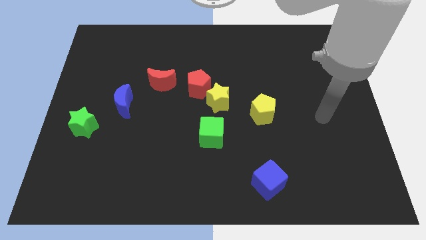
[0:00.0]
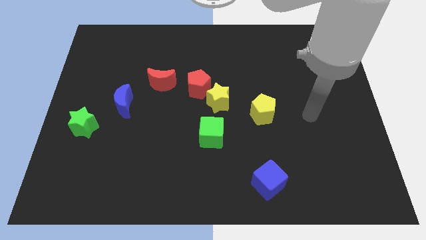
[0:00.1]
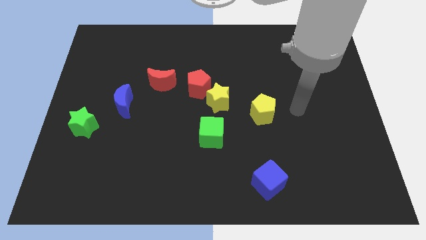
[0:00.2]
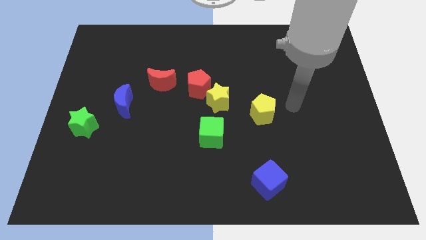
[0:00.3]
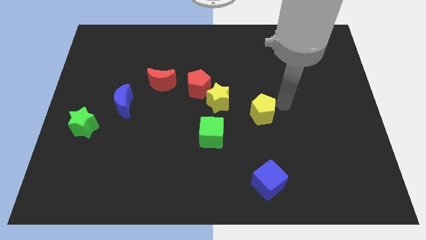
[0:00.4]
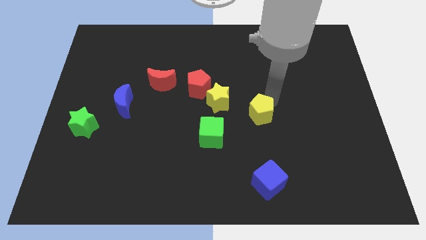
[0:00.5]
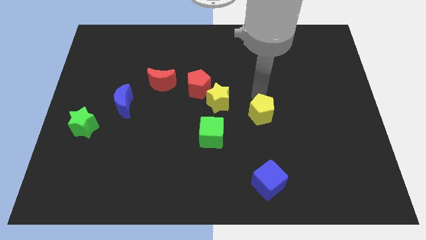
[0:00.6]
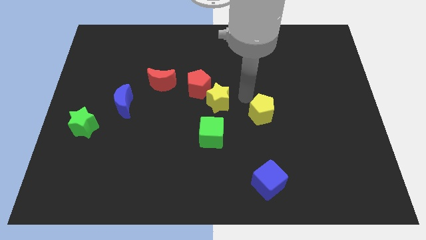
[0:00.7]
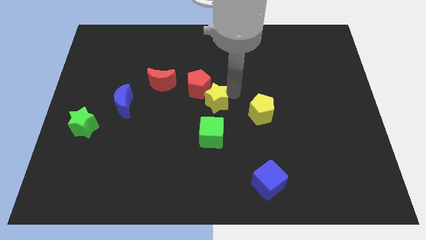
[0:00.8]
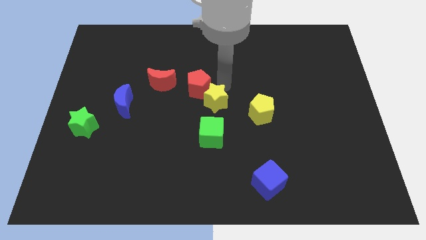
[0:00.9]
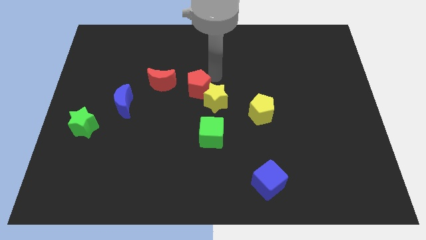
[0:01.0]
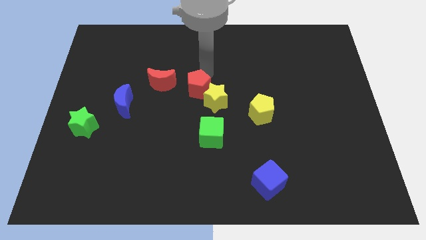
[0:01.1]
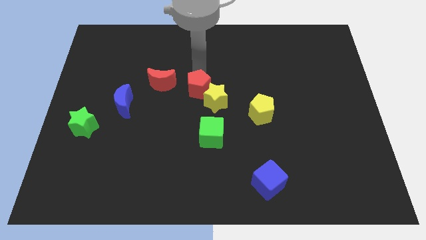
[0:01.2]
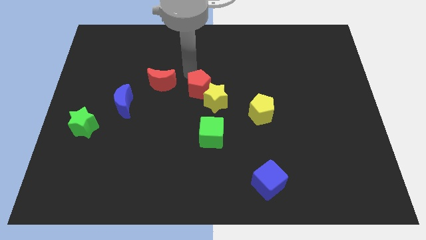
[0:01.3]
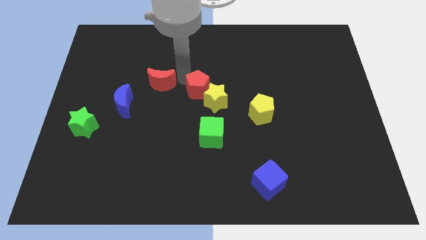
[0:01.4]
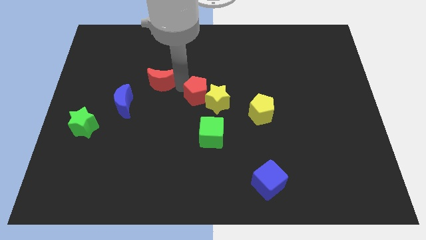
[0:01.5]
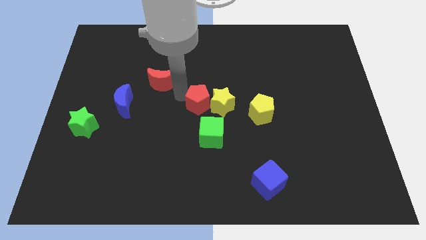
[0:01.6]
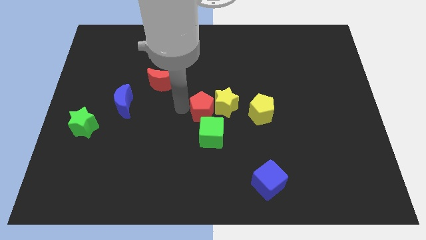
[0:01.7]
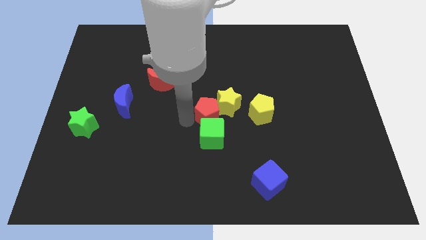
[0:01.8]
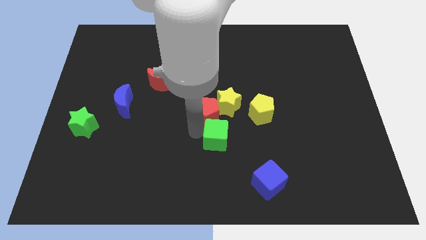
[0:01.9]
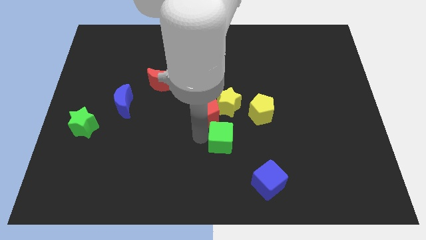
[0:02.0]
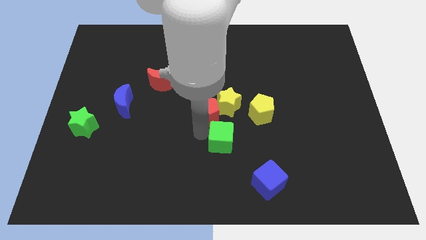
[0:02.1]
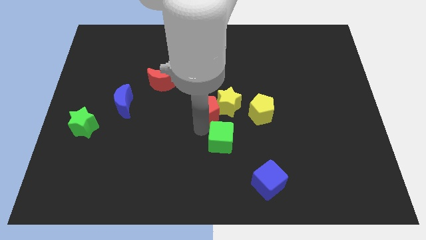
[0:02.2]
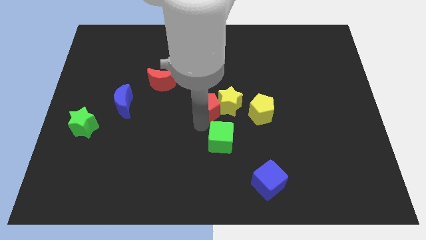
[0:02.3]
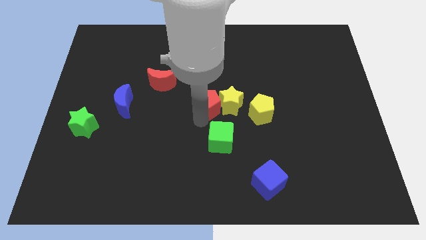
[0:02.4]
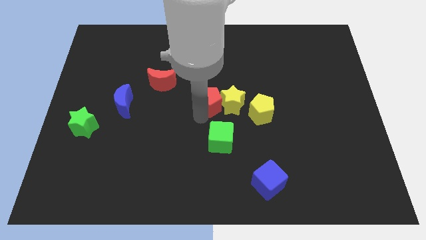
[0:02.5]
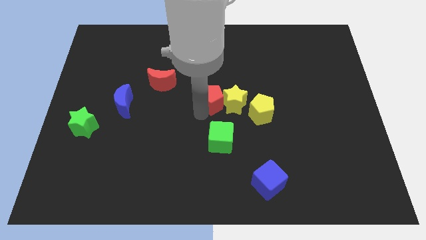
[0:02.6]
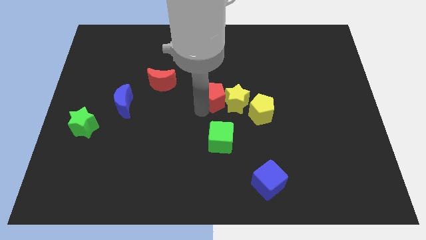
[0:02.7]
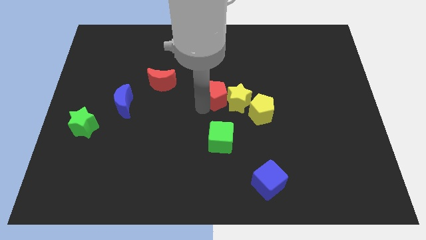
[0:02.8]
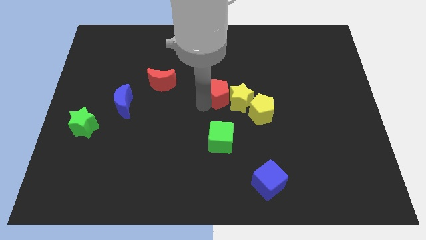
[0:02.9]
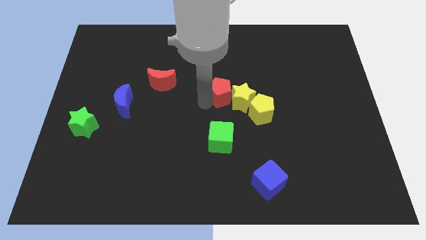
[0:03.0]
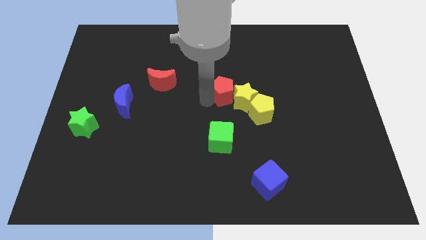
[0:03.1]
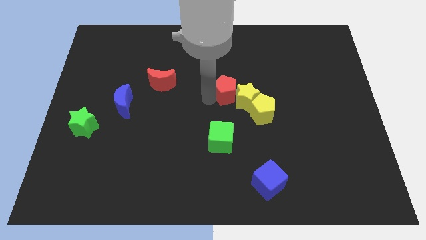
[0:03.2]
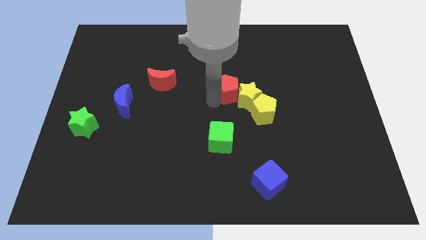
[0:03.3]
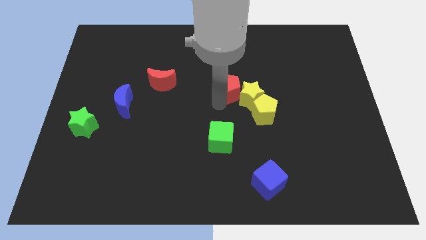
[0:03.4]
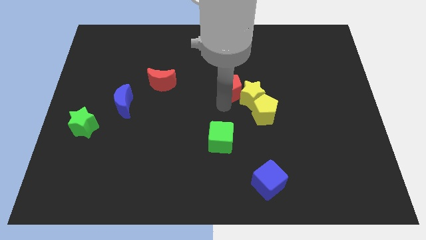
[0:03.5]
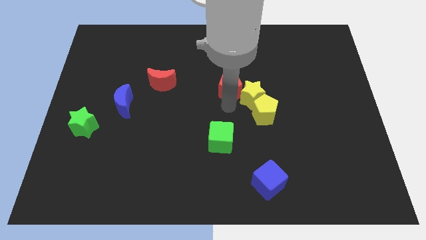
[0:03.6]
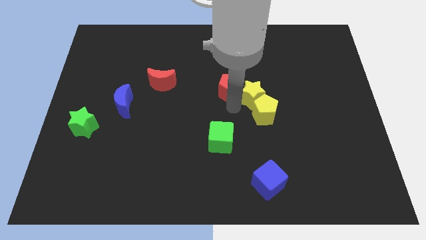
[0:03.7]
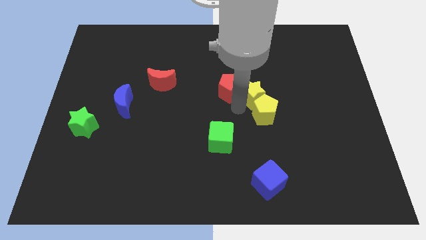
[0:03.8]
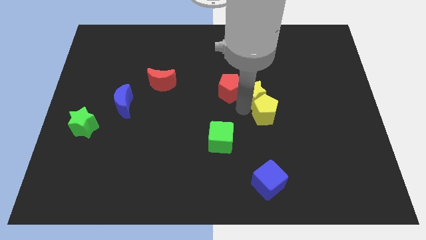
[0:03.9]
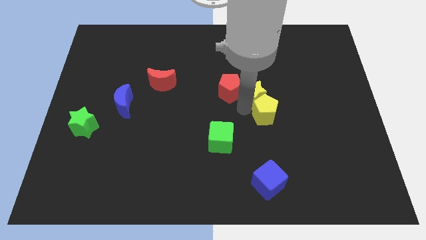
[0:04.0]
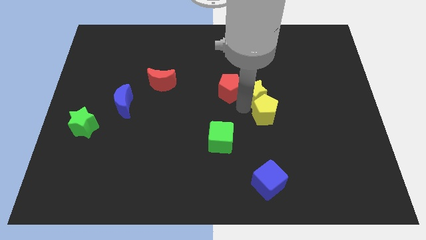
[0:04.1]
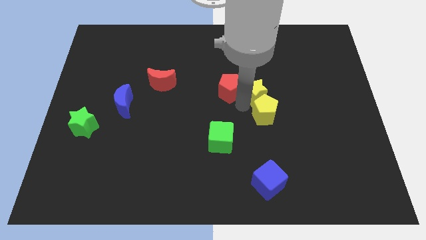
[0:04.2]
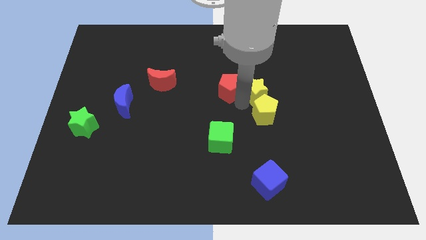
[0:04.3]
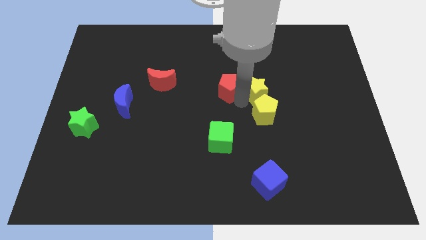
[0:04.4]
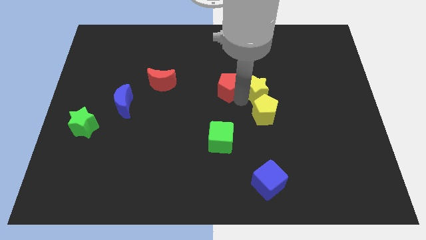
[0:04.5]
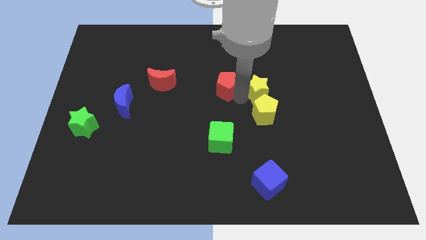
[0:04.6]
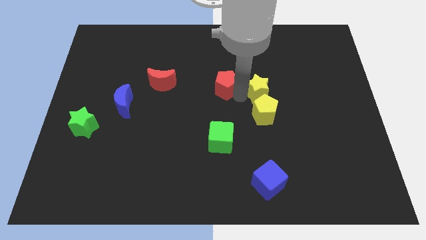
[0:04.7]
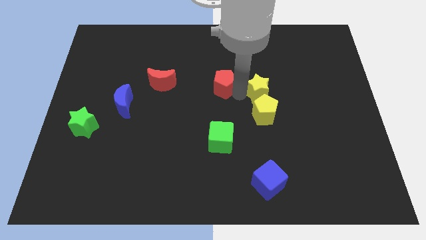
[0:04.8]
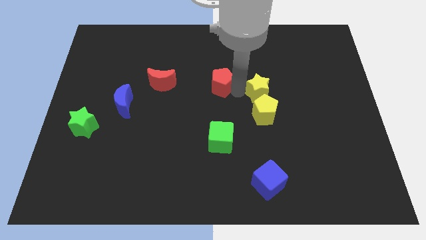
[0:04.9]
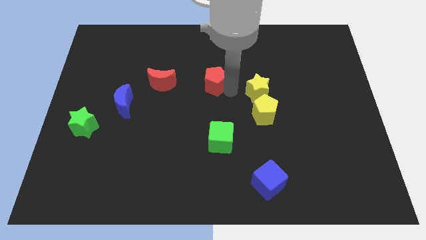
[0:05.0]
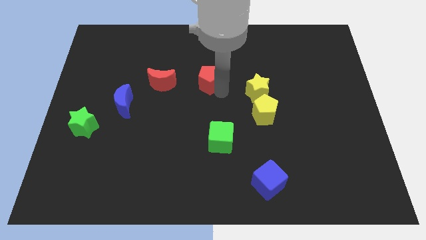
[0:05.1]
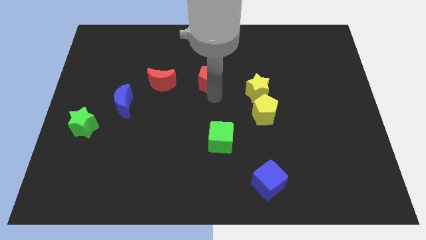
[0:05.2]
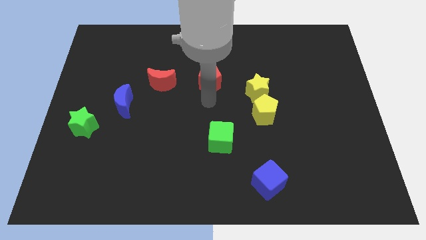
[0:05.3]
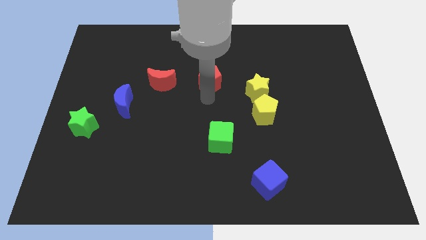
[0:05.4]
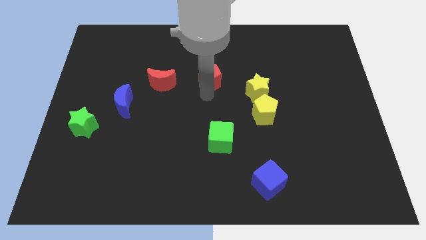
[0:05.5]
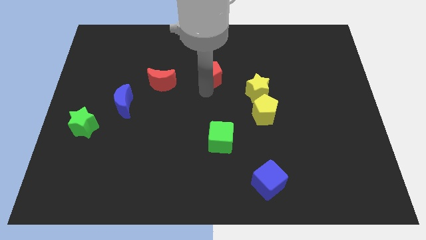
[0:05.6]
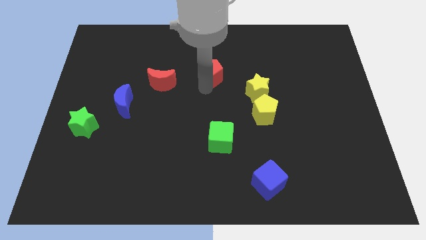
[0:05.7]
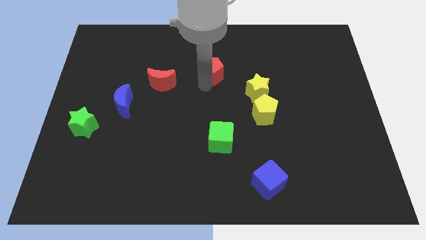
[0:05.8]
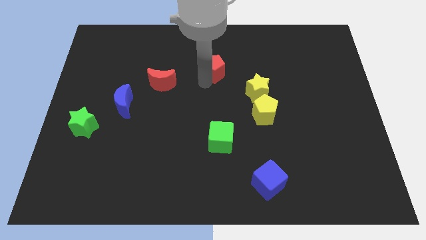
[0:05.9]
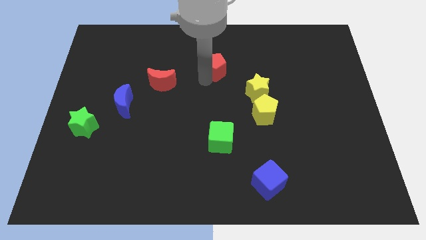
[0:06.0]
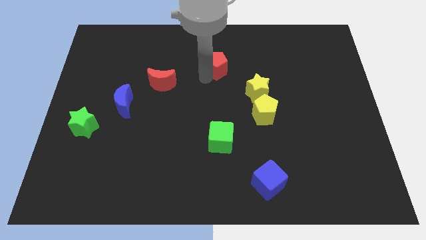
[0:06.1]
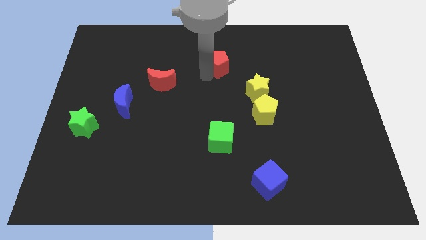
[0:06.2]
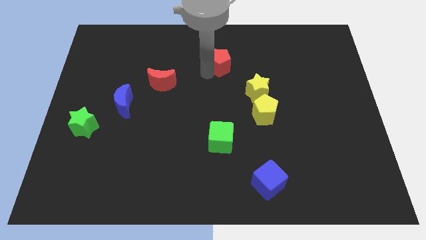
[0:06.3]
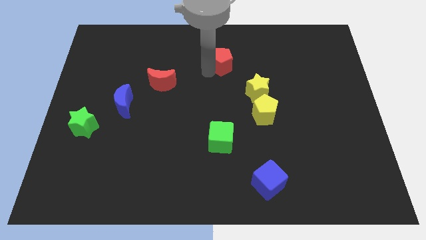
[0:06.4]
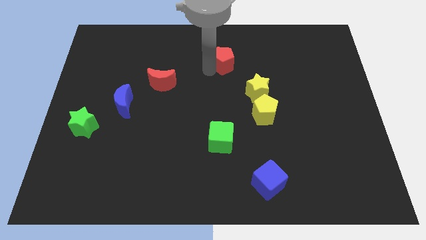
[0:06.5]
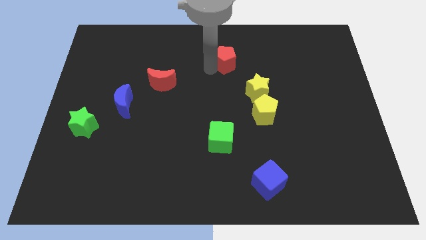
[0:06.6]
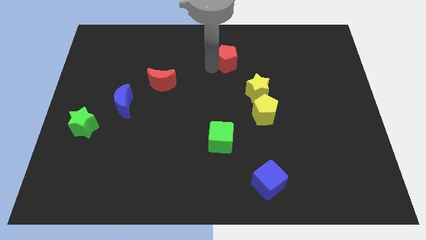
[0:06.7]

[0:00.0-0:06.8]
separate the red pentagon from the yellow star and red moon

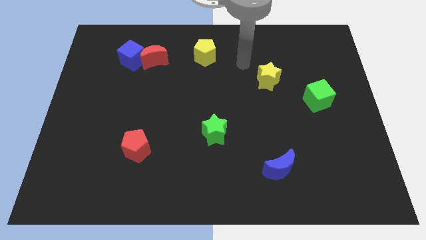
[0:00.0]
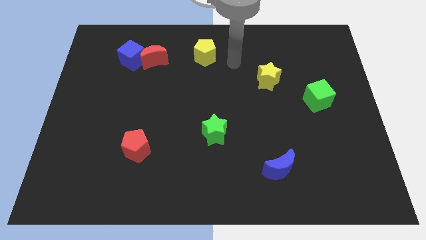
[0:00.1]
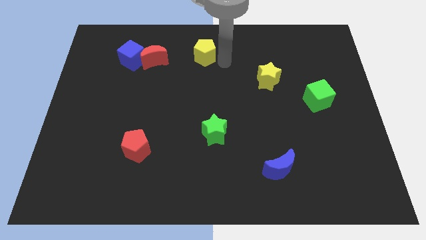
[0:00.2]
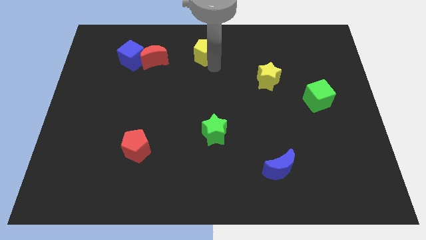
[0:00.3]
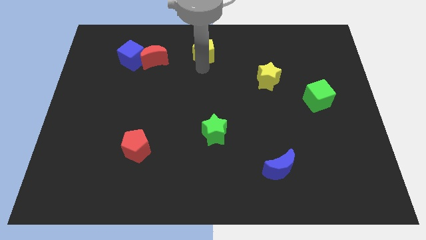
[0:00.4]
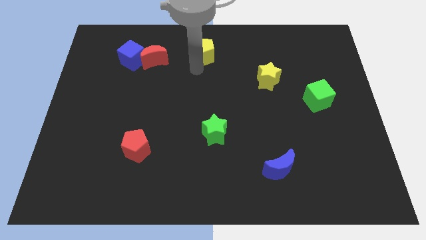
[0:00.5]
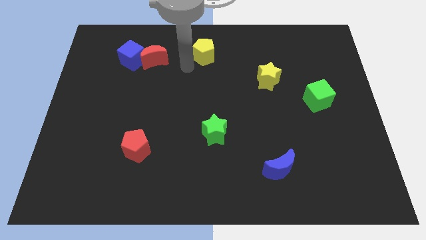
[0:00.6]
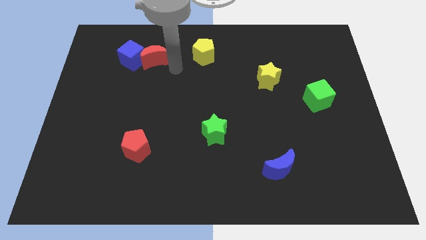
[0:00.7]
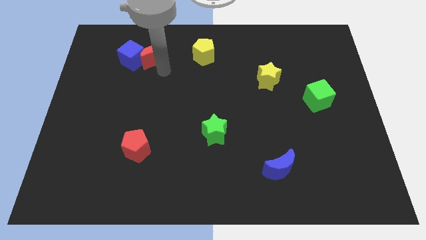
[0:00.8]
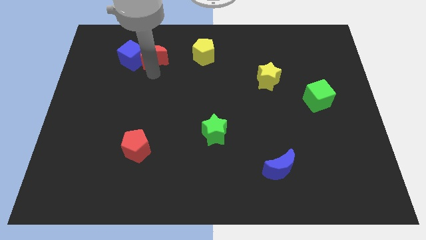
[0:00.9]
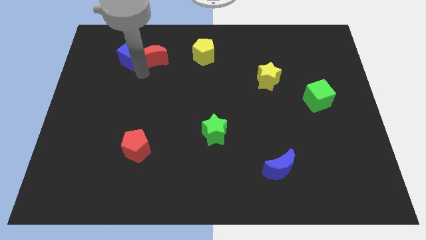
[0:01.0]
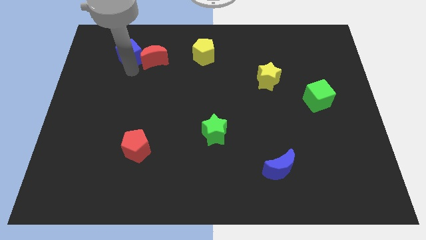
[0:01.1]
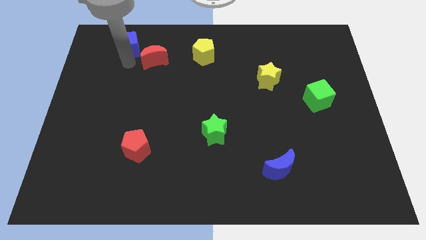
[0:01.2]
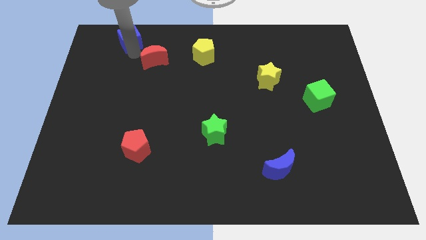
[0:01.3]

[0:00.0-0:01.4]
separate the red moon from the blue cube

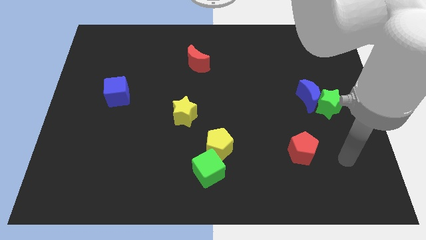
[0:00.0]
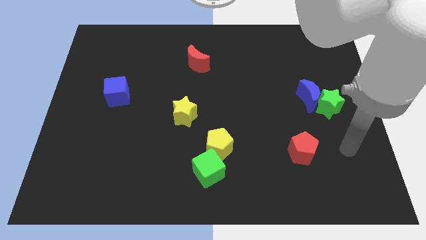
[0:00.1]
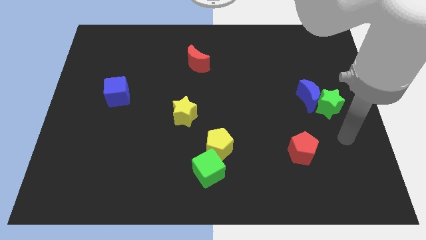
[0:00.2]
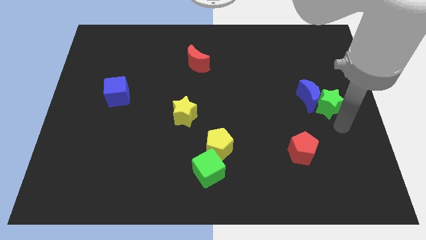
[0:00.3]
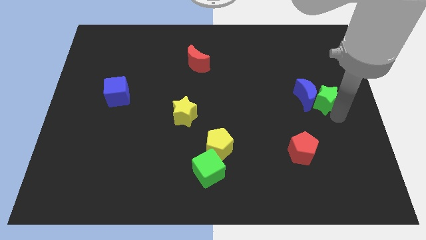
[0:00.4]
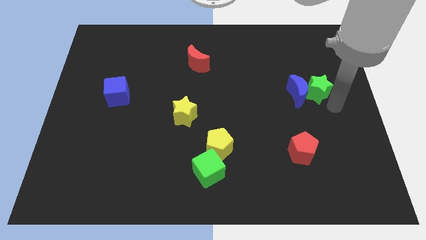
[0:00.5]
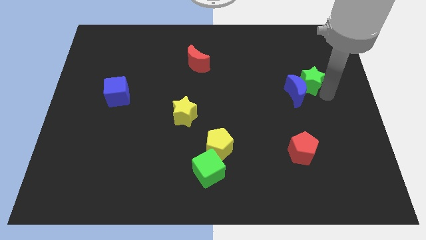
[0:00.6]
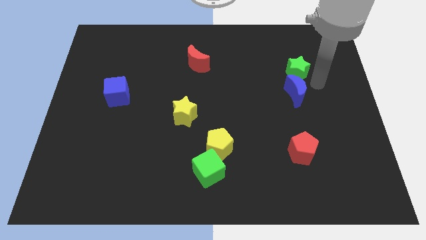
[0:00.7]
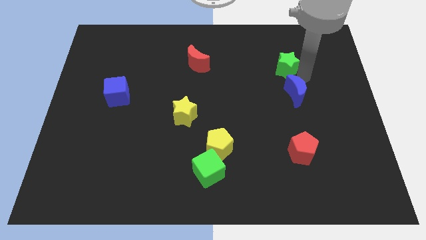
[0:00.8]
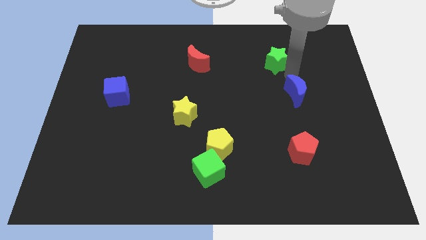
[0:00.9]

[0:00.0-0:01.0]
separate the blue moon from the green star

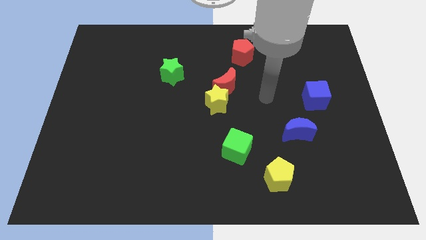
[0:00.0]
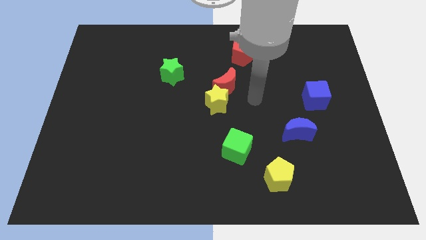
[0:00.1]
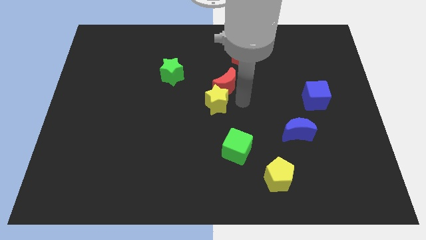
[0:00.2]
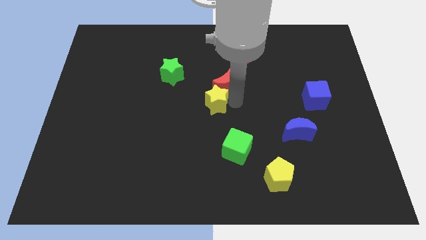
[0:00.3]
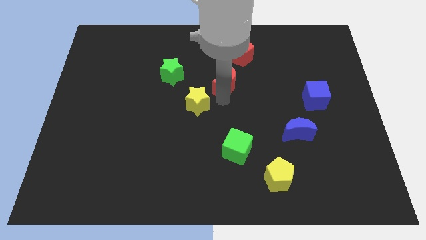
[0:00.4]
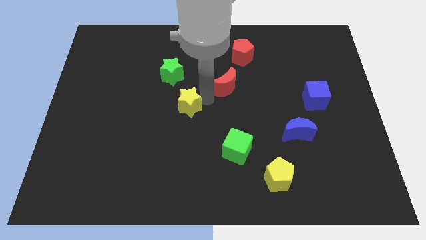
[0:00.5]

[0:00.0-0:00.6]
separate the red moon from the yellow star
